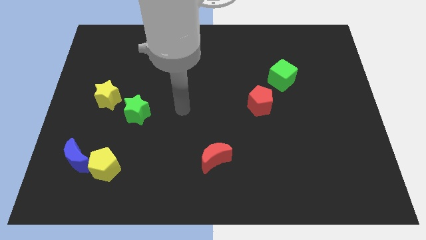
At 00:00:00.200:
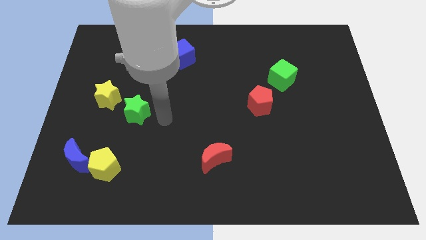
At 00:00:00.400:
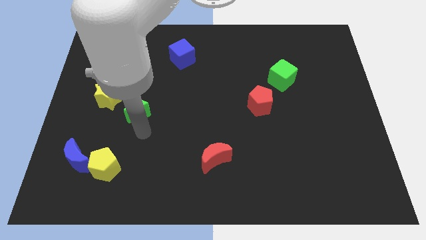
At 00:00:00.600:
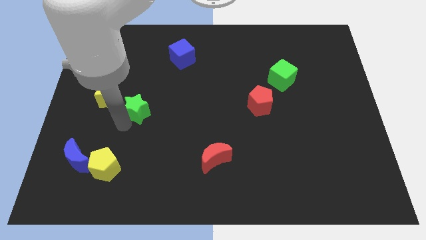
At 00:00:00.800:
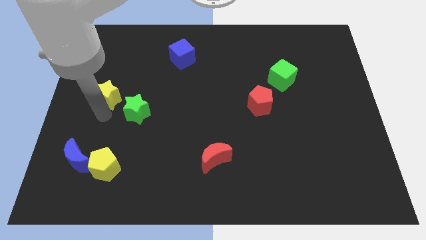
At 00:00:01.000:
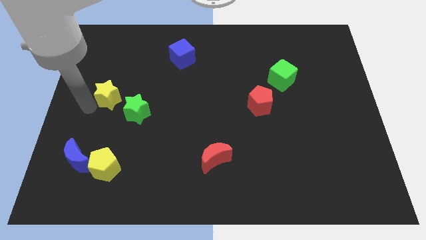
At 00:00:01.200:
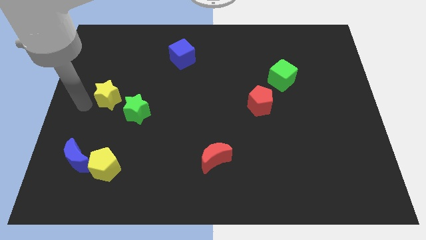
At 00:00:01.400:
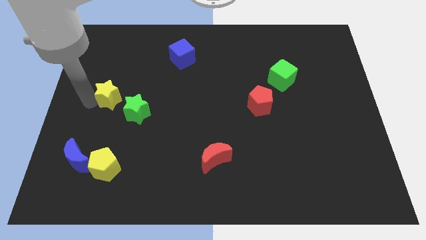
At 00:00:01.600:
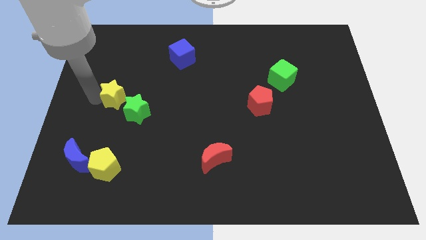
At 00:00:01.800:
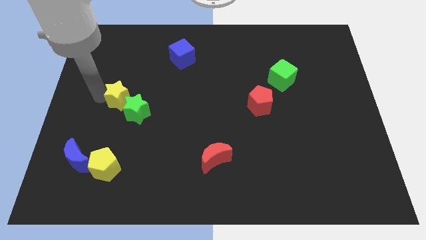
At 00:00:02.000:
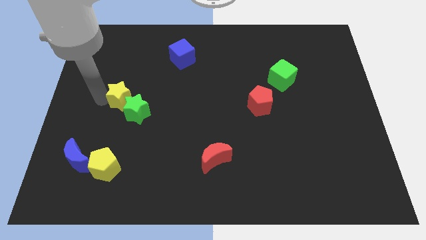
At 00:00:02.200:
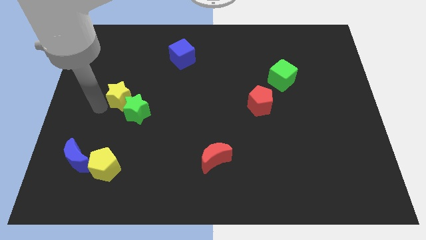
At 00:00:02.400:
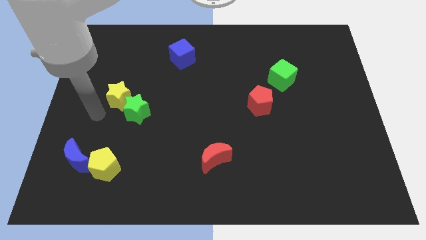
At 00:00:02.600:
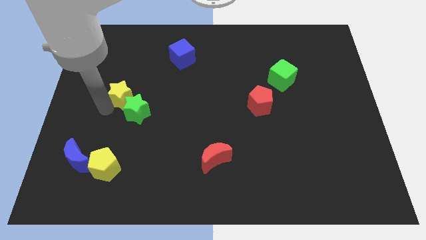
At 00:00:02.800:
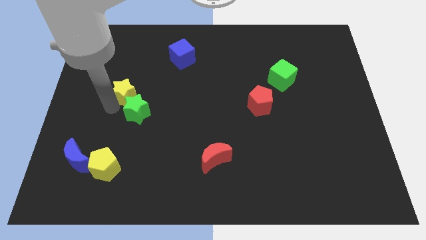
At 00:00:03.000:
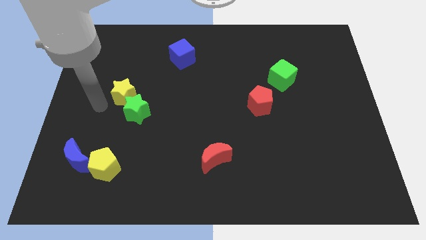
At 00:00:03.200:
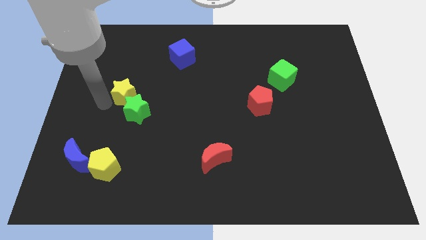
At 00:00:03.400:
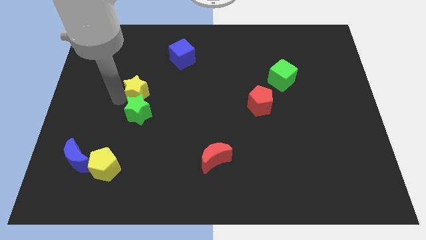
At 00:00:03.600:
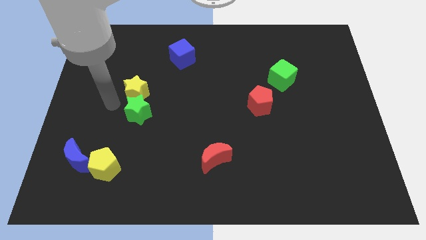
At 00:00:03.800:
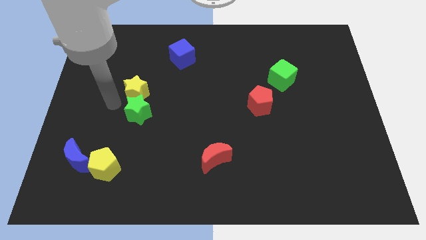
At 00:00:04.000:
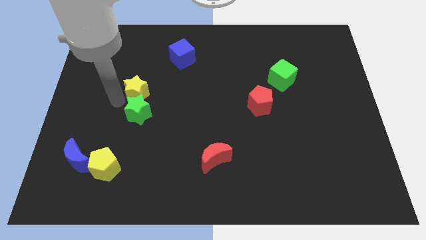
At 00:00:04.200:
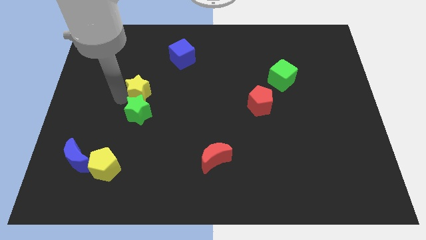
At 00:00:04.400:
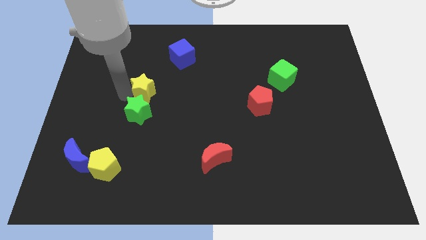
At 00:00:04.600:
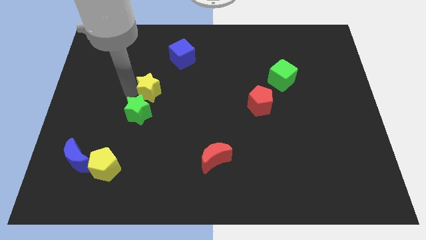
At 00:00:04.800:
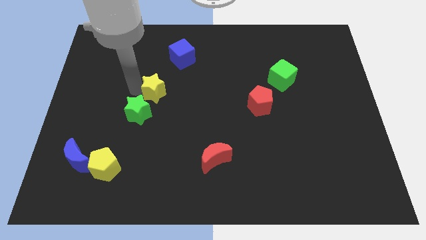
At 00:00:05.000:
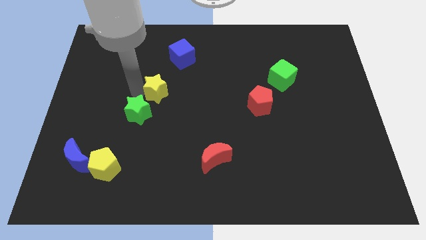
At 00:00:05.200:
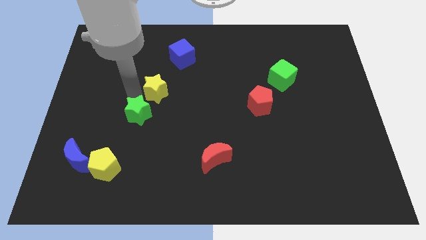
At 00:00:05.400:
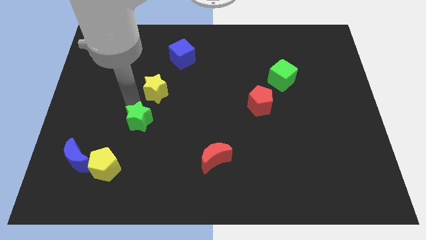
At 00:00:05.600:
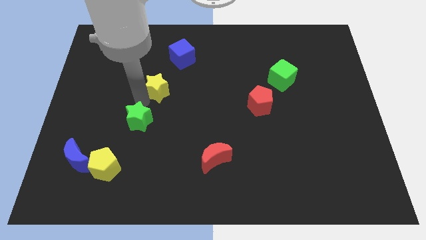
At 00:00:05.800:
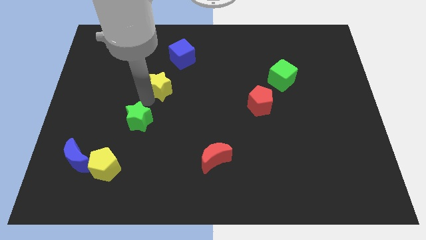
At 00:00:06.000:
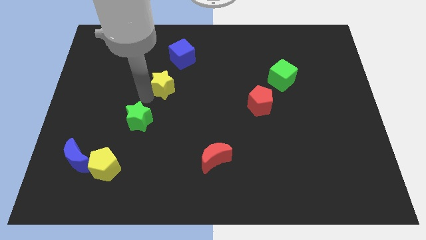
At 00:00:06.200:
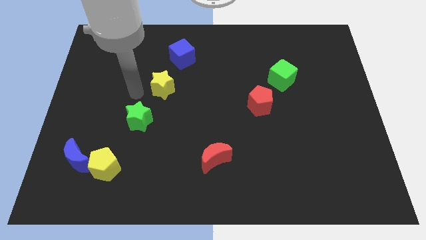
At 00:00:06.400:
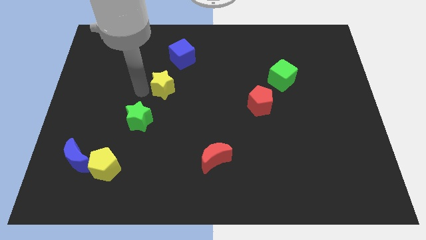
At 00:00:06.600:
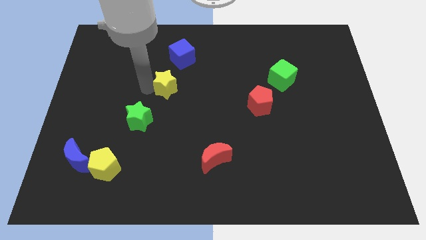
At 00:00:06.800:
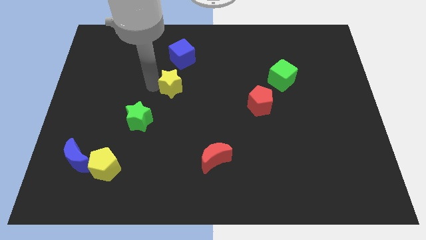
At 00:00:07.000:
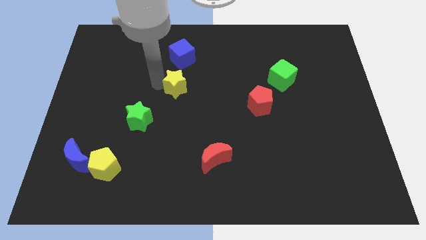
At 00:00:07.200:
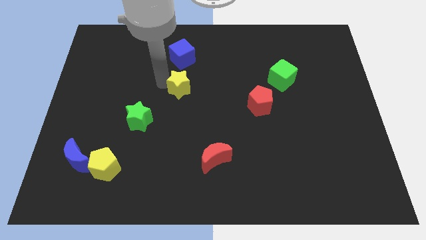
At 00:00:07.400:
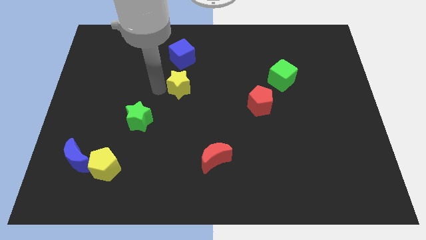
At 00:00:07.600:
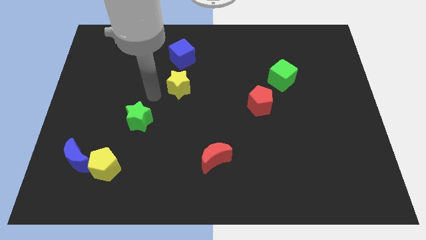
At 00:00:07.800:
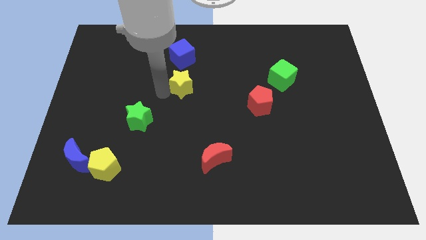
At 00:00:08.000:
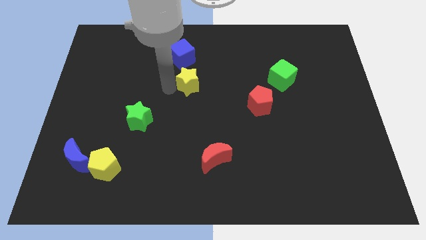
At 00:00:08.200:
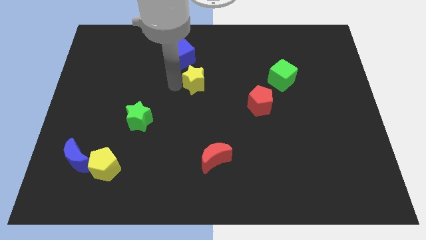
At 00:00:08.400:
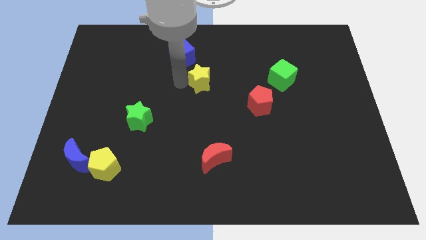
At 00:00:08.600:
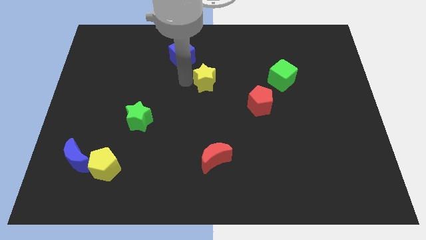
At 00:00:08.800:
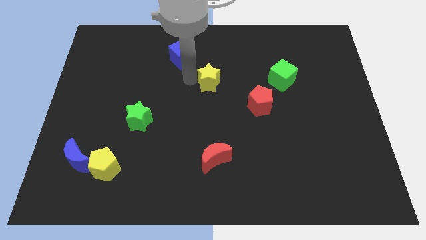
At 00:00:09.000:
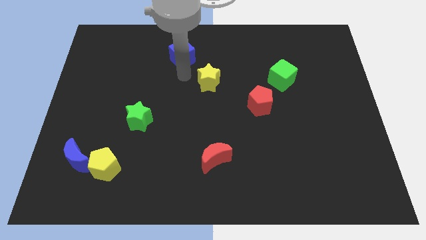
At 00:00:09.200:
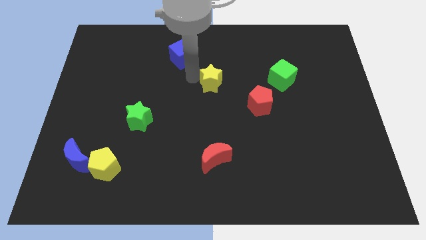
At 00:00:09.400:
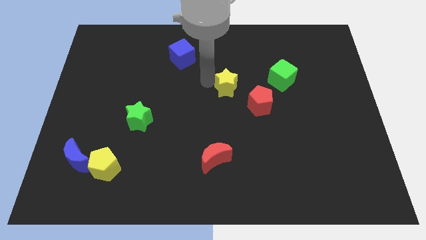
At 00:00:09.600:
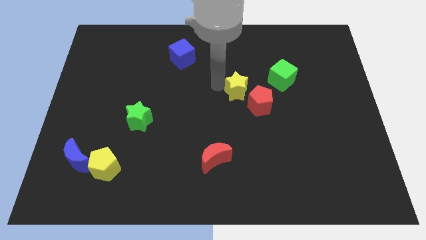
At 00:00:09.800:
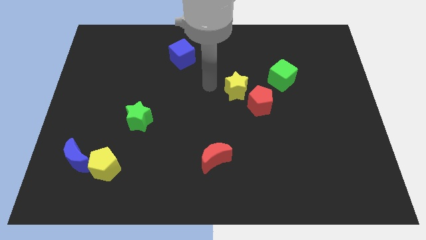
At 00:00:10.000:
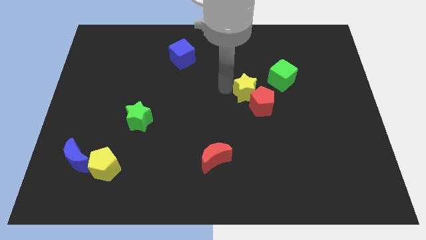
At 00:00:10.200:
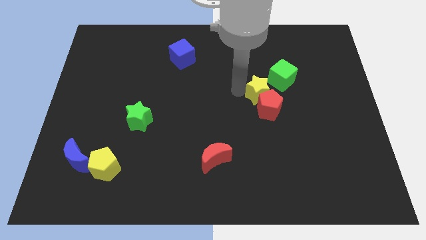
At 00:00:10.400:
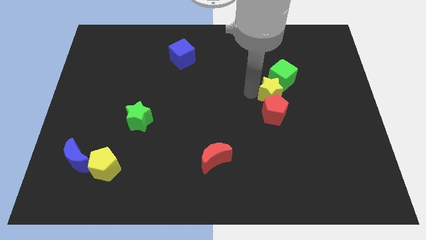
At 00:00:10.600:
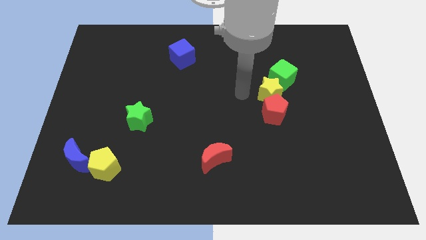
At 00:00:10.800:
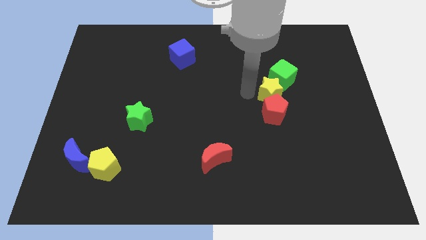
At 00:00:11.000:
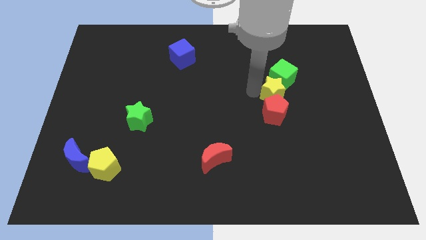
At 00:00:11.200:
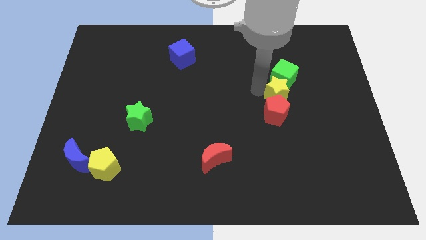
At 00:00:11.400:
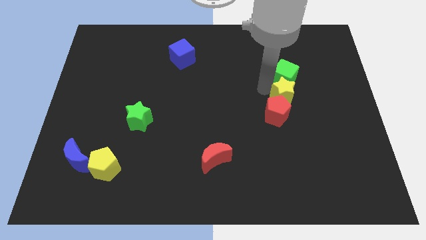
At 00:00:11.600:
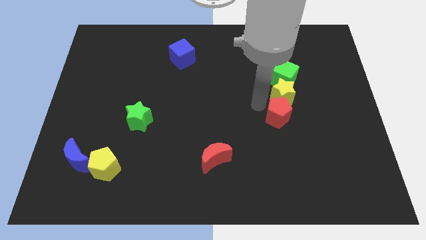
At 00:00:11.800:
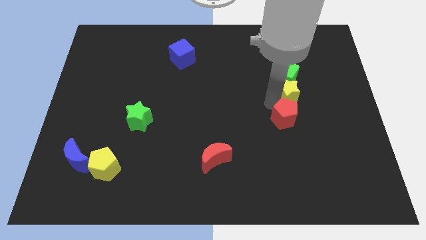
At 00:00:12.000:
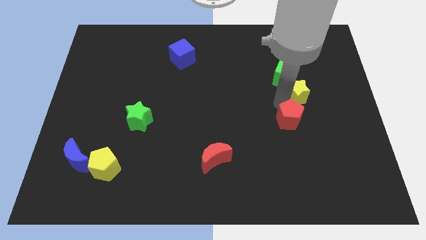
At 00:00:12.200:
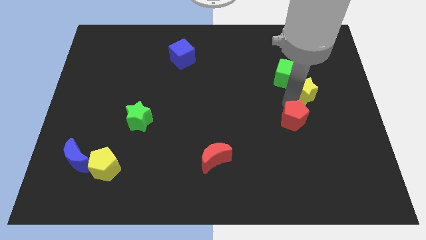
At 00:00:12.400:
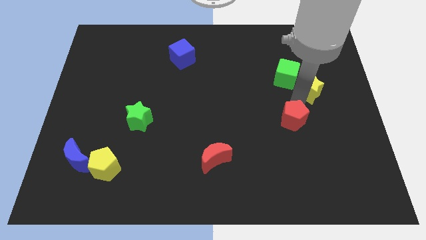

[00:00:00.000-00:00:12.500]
put the yellow star just right of the green cube

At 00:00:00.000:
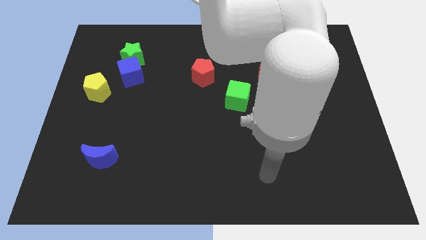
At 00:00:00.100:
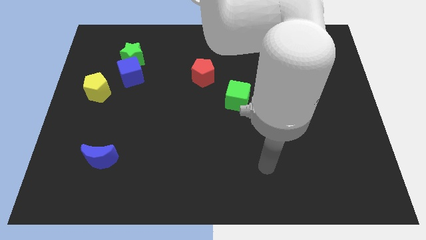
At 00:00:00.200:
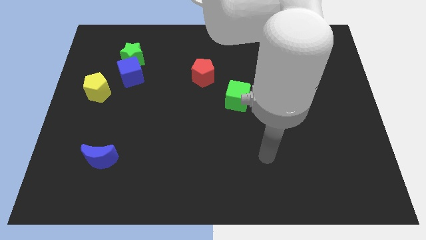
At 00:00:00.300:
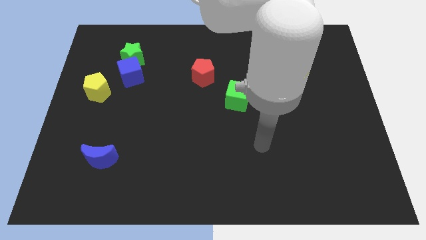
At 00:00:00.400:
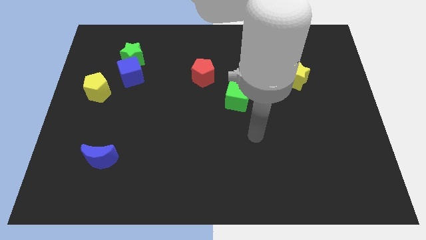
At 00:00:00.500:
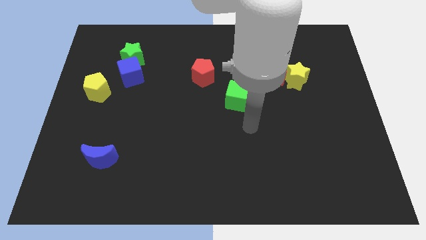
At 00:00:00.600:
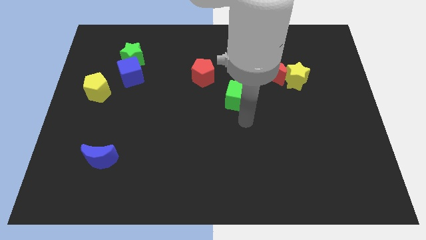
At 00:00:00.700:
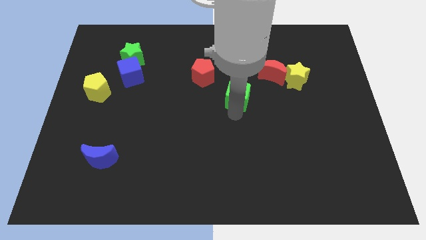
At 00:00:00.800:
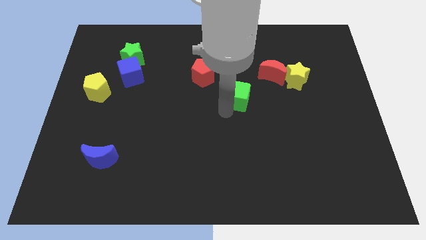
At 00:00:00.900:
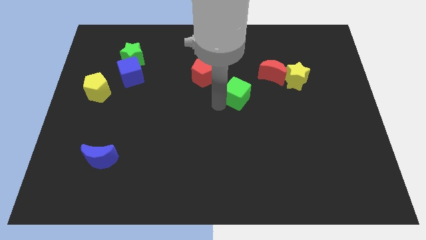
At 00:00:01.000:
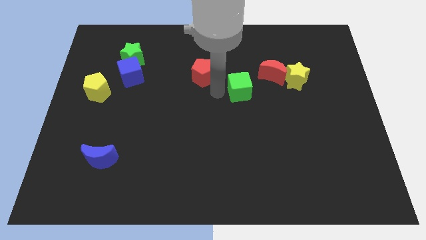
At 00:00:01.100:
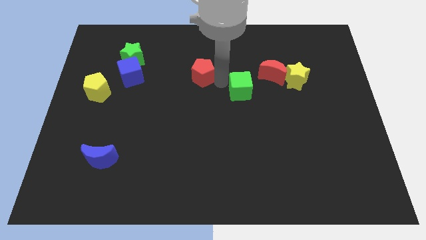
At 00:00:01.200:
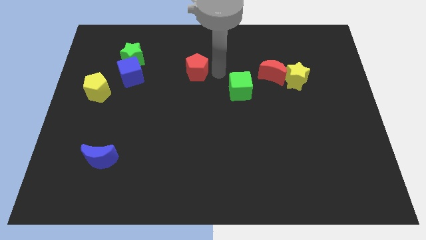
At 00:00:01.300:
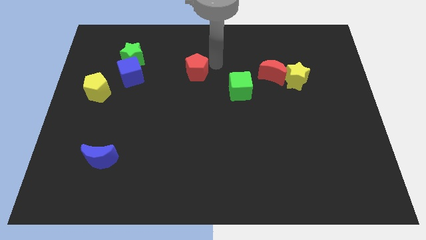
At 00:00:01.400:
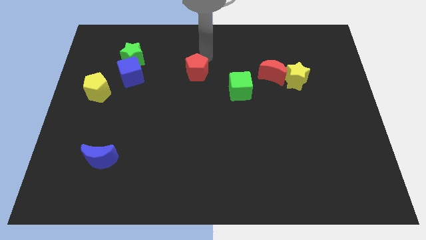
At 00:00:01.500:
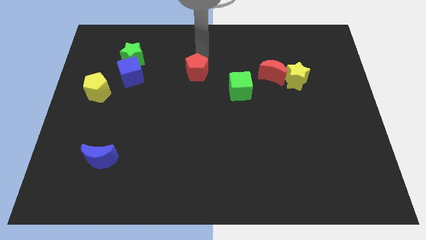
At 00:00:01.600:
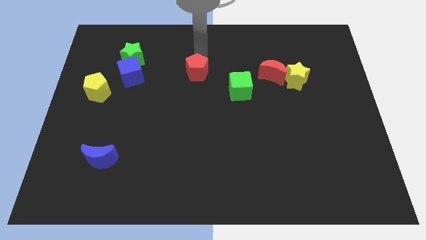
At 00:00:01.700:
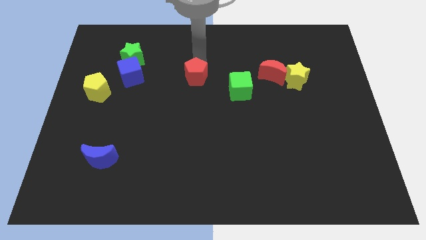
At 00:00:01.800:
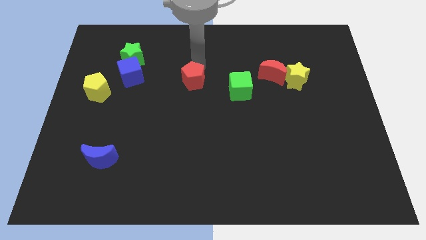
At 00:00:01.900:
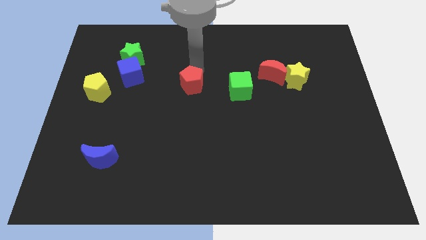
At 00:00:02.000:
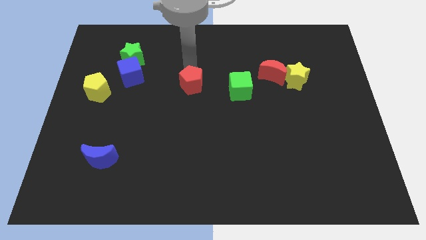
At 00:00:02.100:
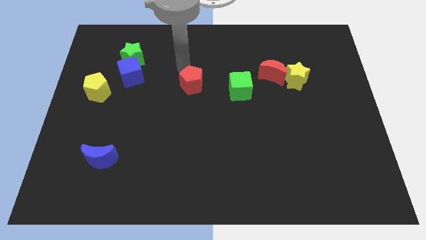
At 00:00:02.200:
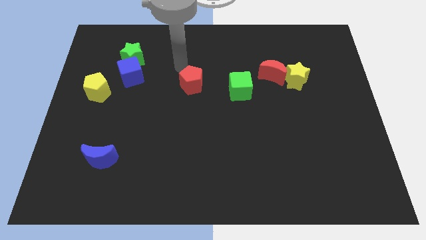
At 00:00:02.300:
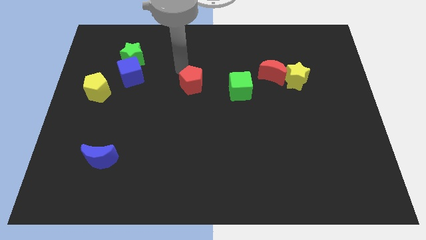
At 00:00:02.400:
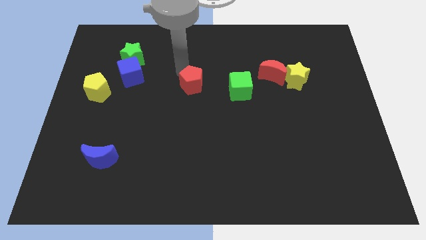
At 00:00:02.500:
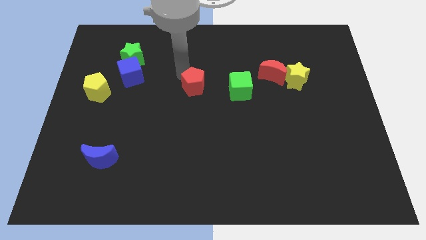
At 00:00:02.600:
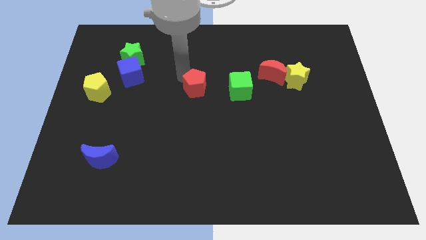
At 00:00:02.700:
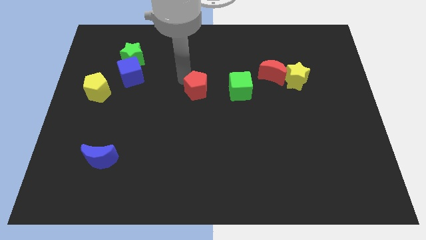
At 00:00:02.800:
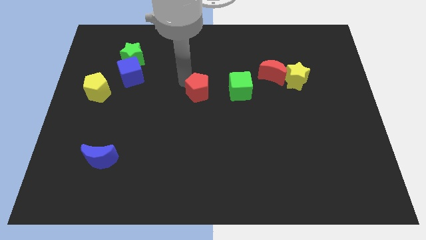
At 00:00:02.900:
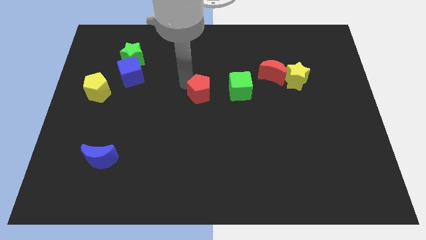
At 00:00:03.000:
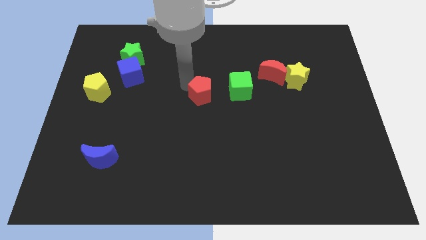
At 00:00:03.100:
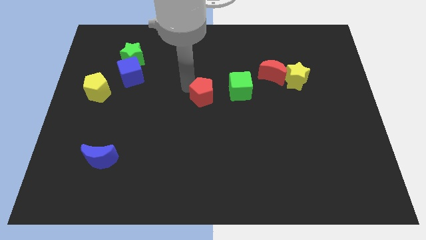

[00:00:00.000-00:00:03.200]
slide the red pentagon diagonally down and to the left of the green cube
